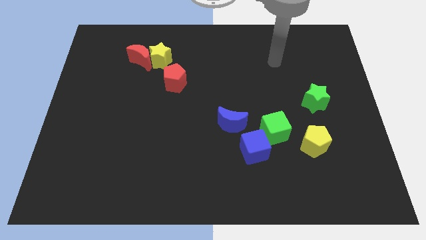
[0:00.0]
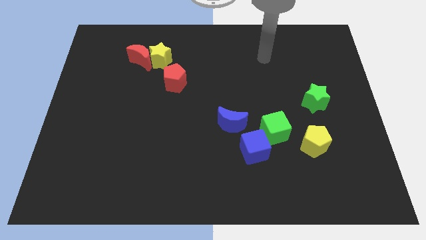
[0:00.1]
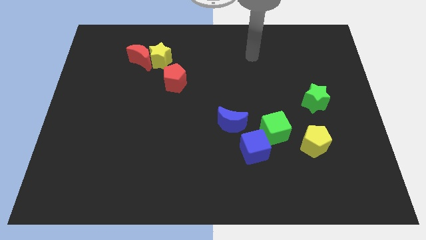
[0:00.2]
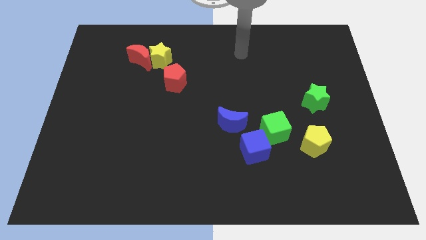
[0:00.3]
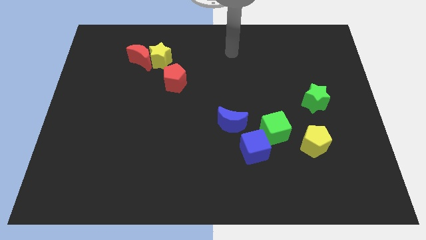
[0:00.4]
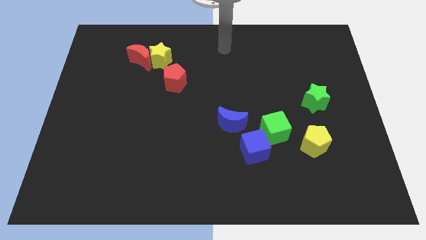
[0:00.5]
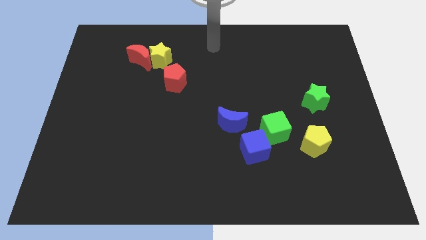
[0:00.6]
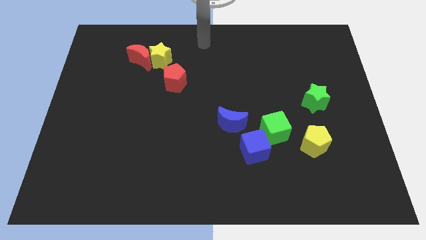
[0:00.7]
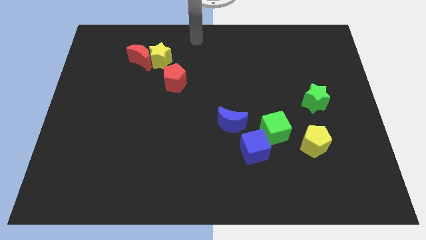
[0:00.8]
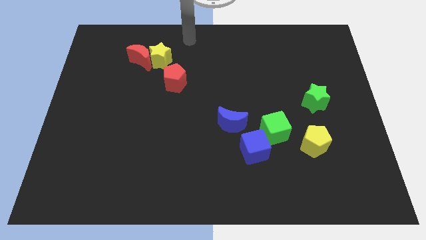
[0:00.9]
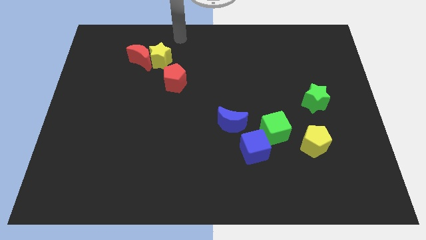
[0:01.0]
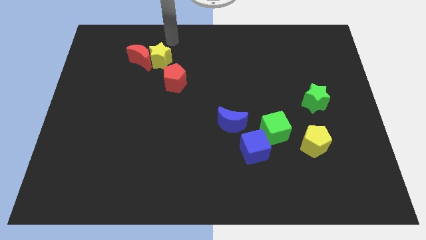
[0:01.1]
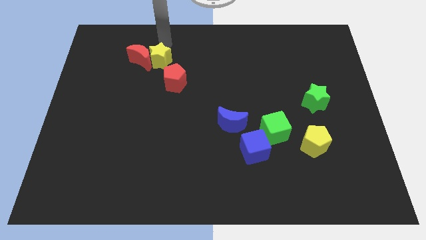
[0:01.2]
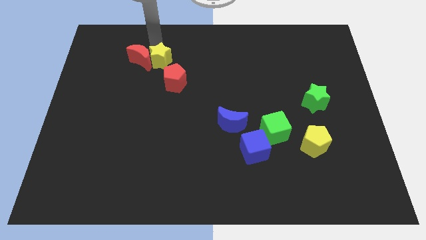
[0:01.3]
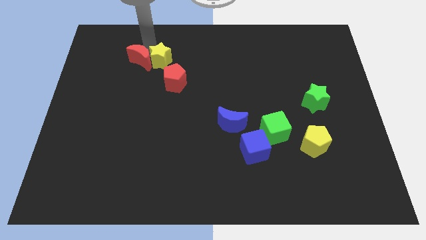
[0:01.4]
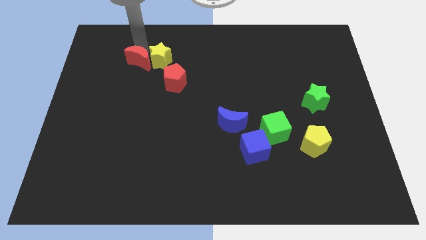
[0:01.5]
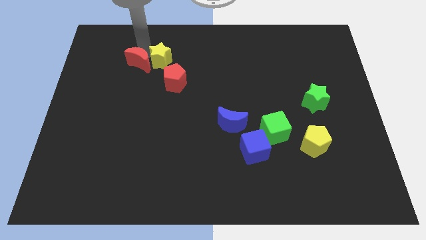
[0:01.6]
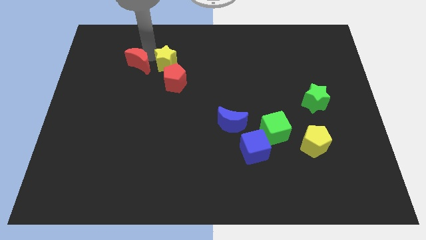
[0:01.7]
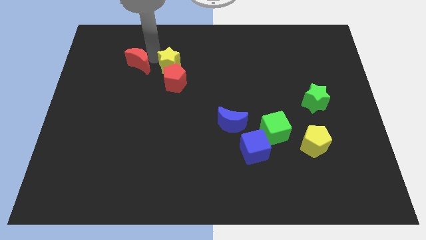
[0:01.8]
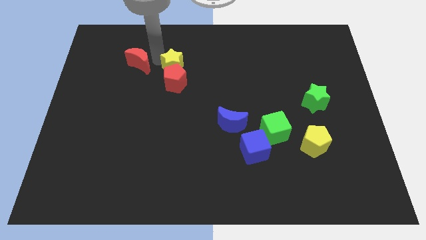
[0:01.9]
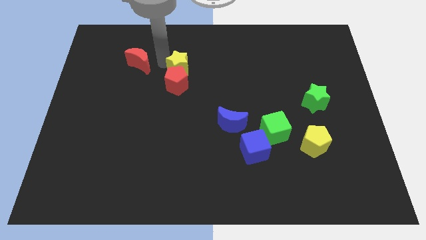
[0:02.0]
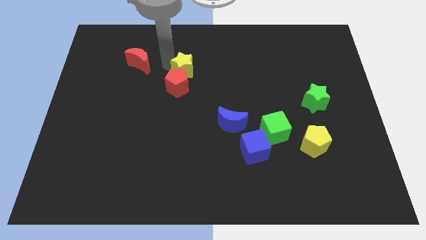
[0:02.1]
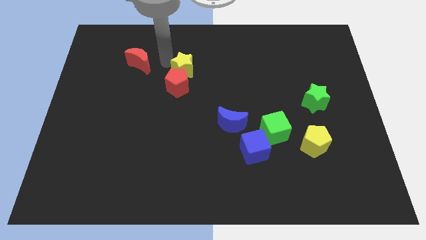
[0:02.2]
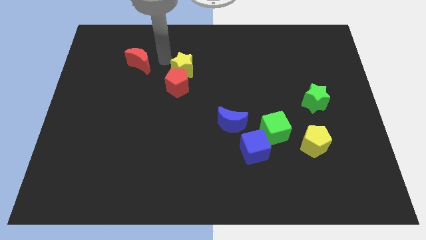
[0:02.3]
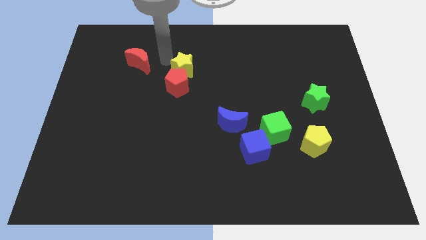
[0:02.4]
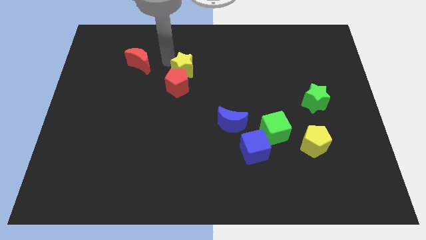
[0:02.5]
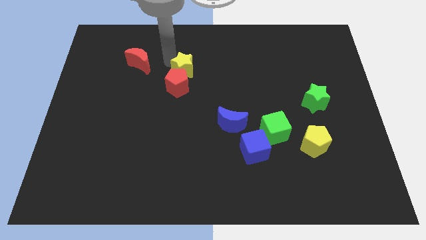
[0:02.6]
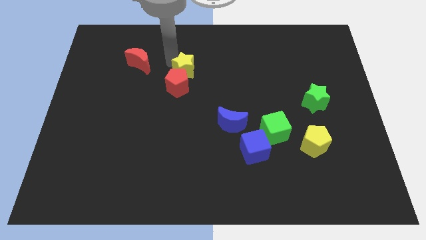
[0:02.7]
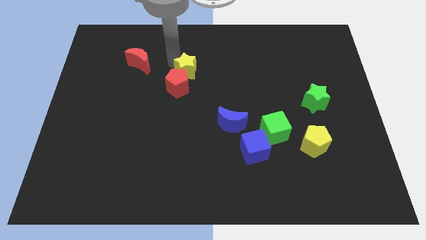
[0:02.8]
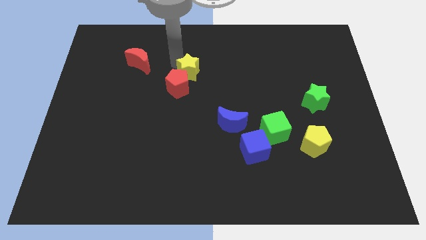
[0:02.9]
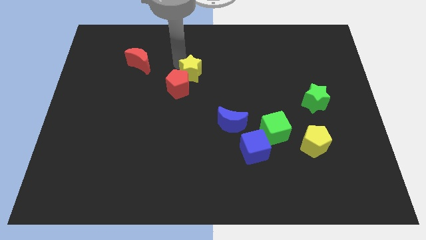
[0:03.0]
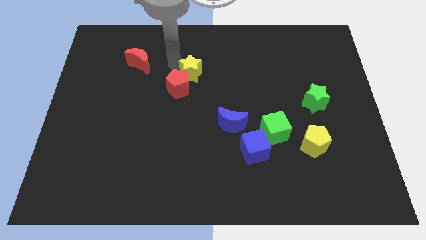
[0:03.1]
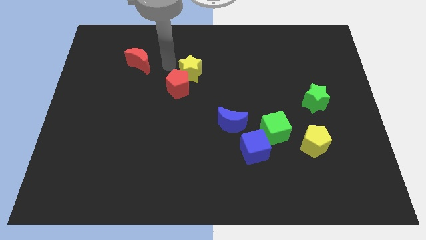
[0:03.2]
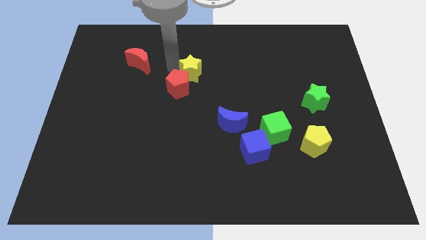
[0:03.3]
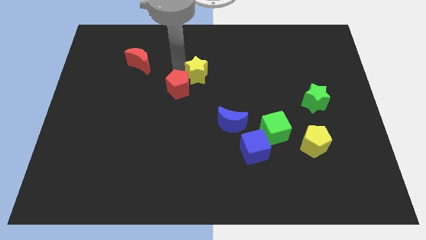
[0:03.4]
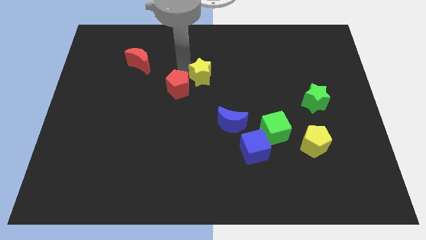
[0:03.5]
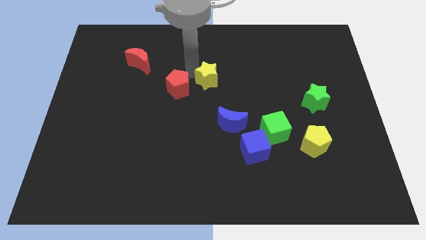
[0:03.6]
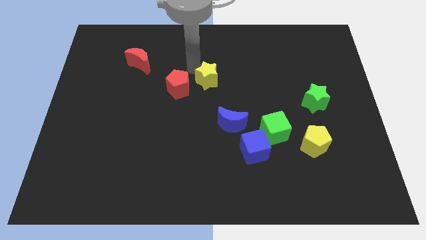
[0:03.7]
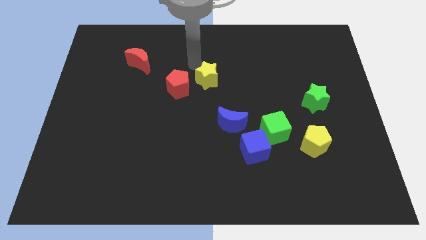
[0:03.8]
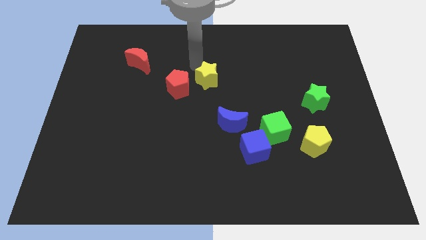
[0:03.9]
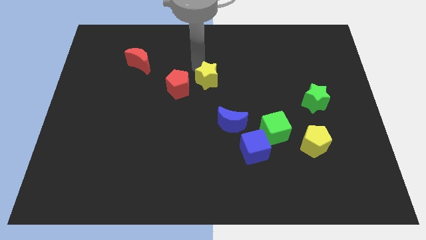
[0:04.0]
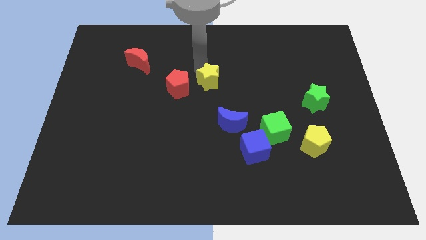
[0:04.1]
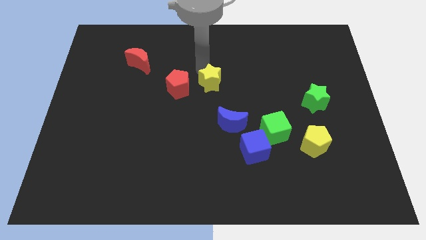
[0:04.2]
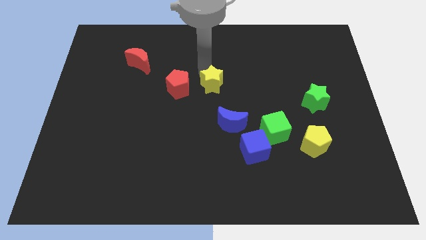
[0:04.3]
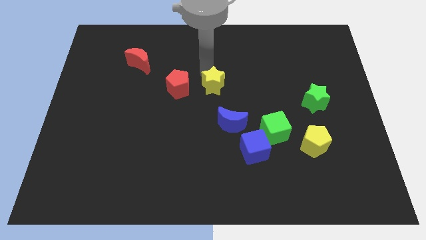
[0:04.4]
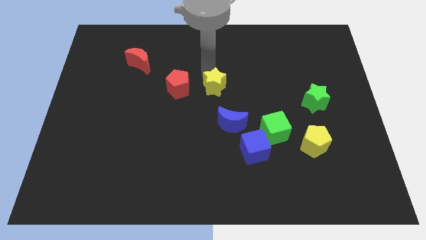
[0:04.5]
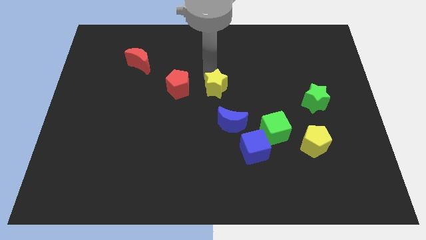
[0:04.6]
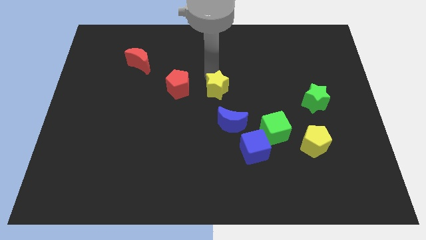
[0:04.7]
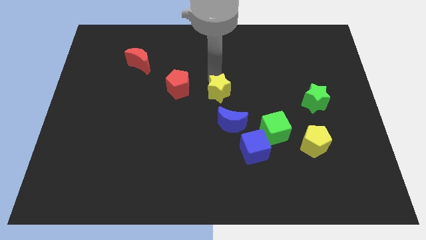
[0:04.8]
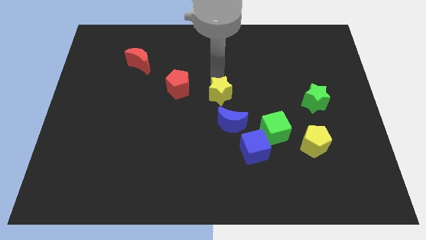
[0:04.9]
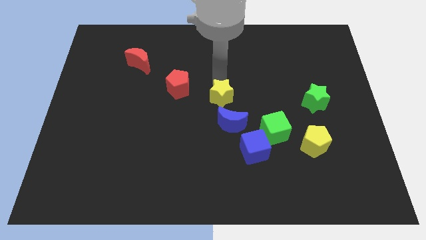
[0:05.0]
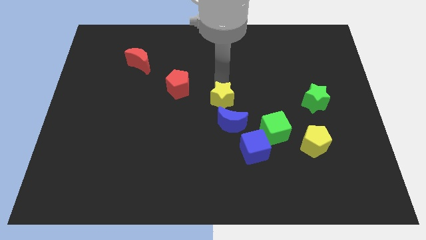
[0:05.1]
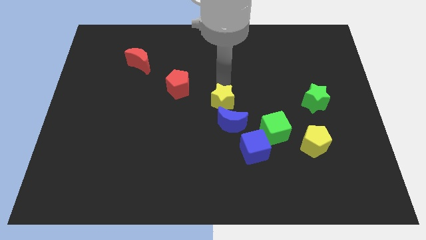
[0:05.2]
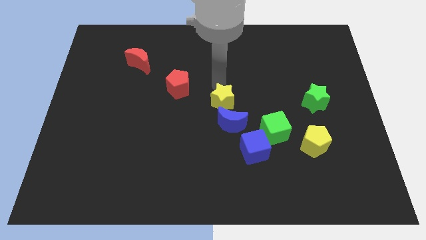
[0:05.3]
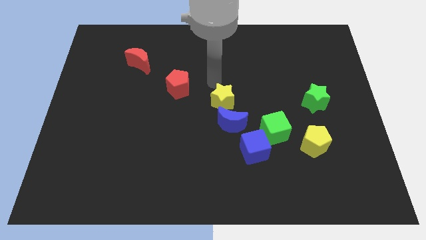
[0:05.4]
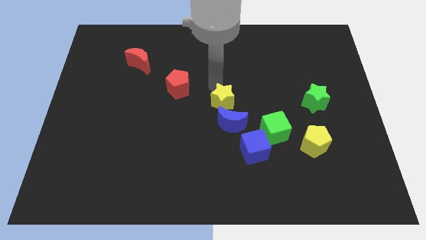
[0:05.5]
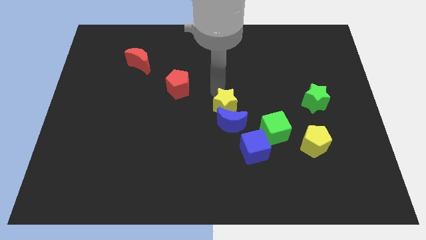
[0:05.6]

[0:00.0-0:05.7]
put the yellow star to the blue moon

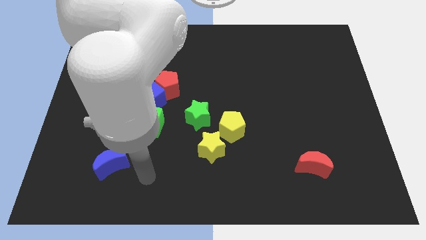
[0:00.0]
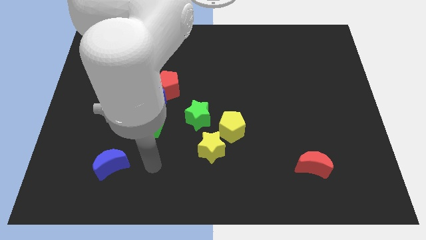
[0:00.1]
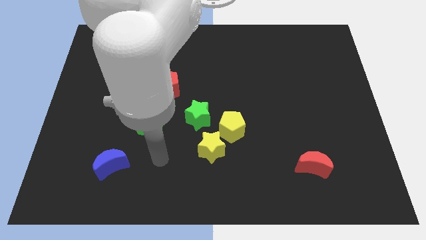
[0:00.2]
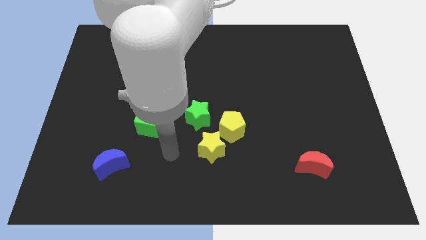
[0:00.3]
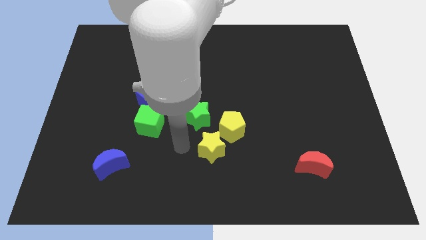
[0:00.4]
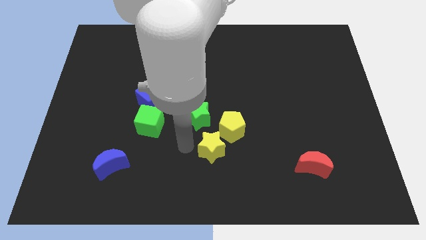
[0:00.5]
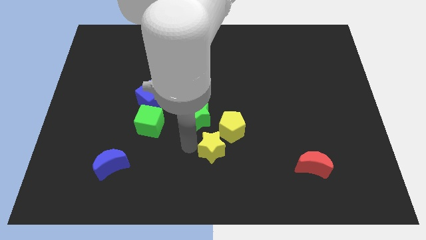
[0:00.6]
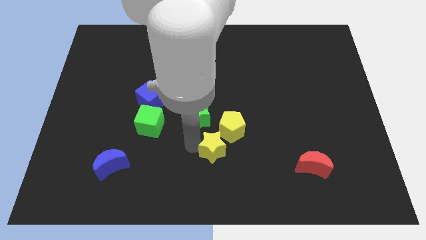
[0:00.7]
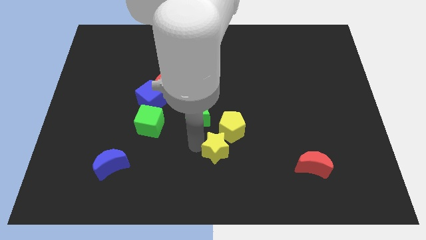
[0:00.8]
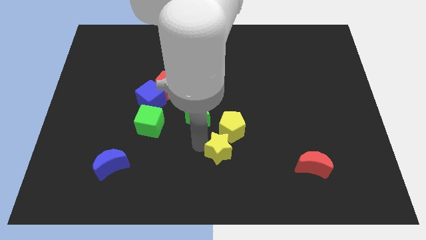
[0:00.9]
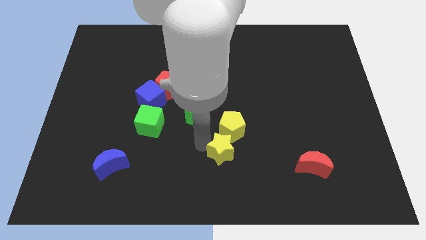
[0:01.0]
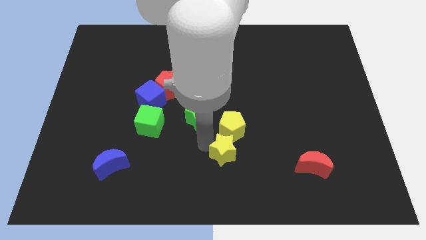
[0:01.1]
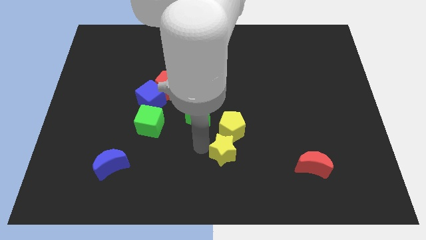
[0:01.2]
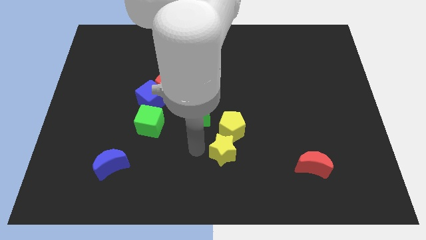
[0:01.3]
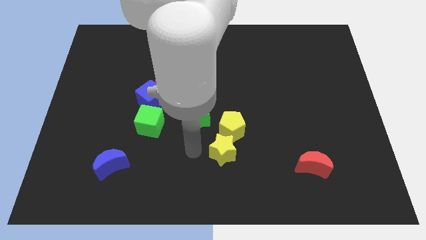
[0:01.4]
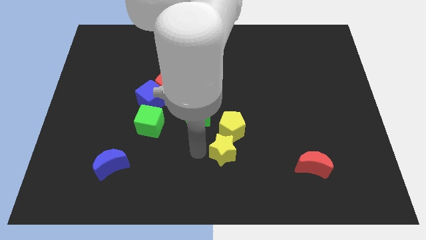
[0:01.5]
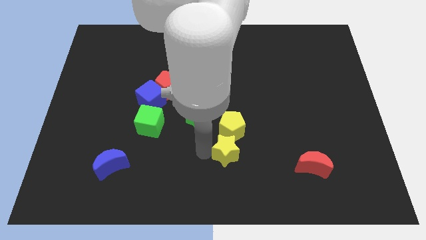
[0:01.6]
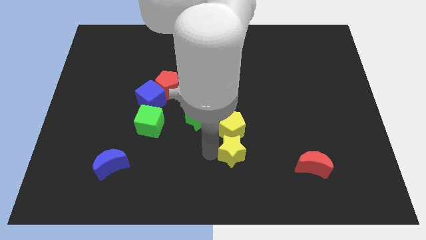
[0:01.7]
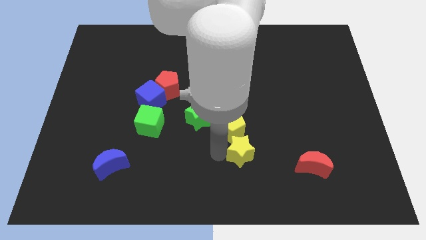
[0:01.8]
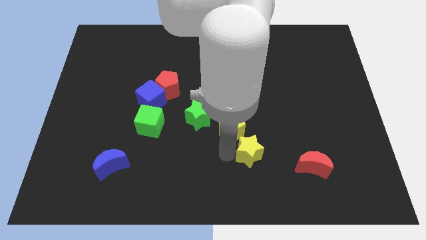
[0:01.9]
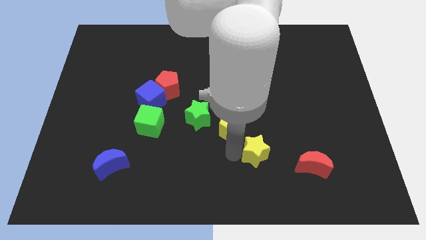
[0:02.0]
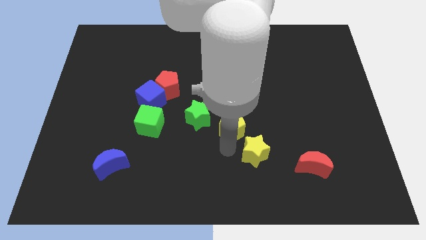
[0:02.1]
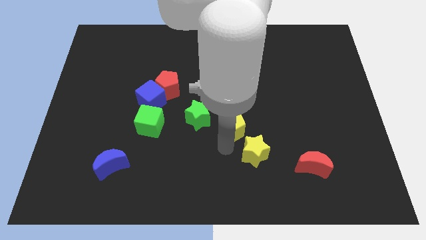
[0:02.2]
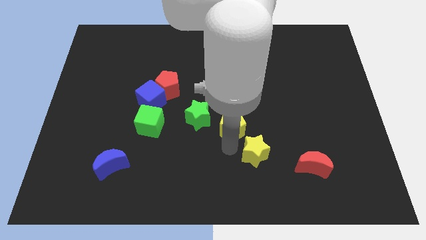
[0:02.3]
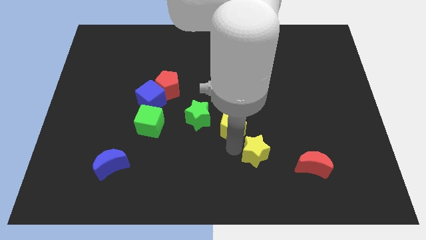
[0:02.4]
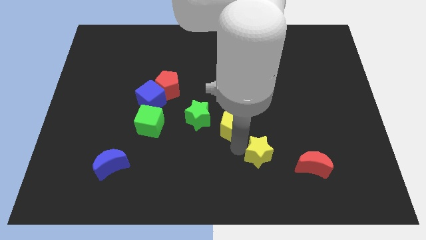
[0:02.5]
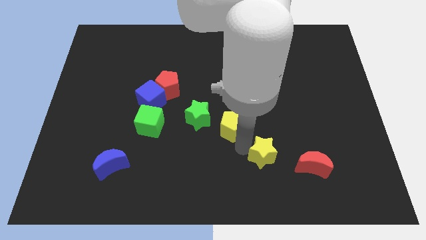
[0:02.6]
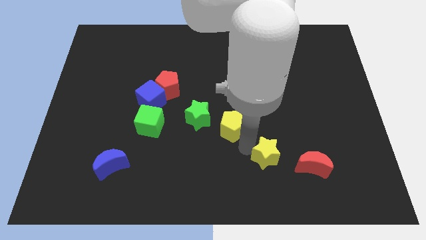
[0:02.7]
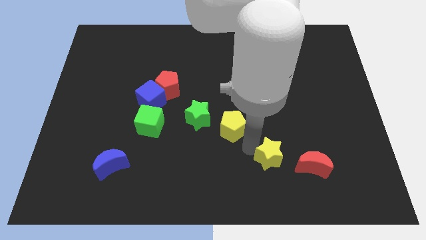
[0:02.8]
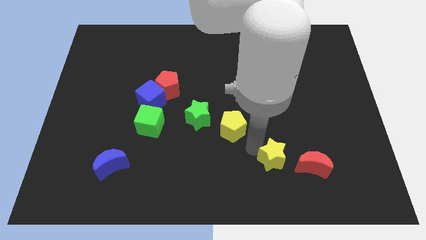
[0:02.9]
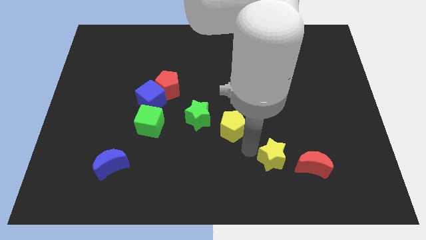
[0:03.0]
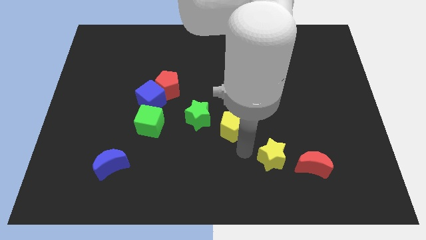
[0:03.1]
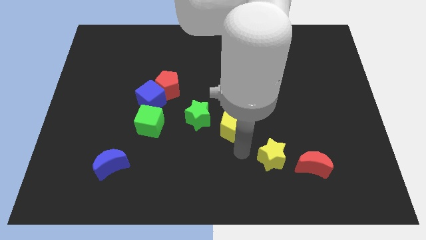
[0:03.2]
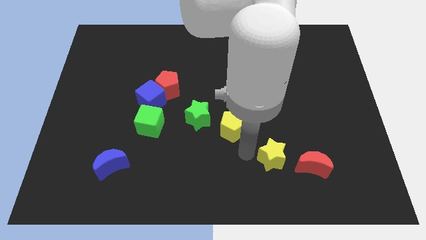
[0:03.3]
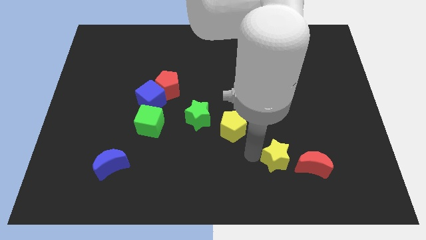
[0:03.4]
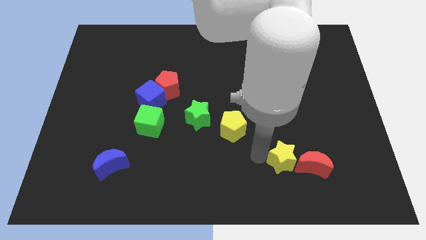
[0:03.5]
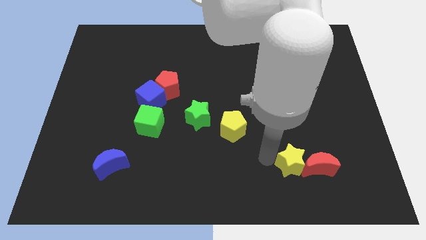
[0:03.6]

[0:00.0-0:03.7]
put the yellow star to the red moon
